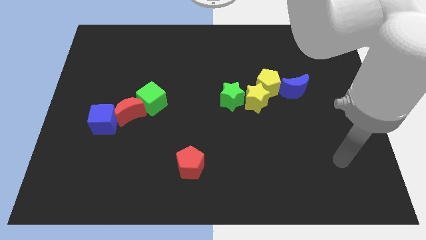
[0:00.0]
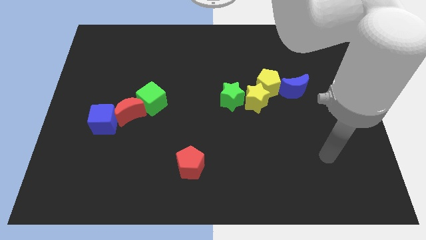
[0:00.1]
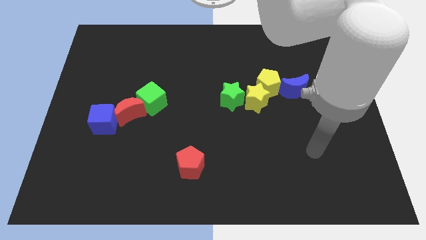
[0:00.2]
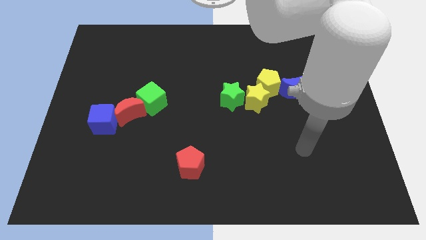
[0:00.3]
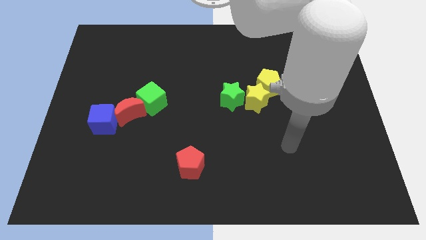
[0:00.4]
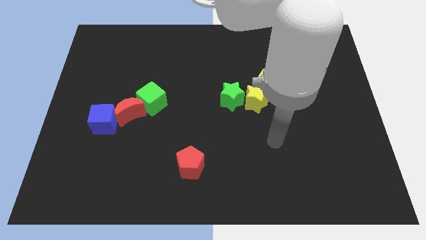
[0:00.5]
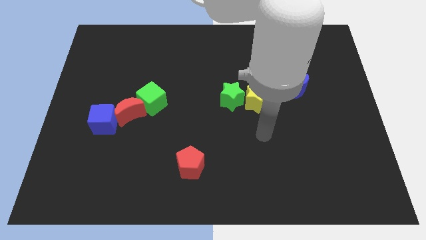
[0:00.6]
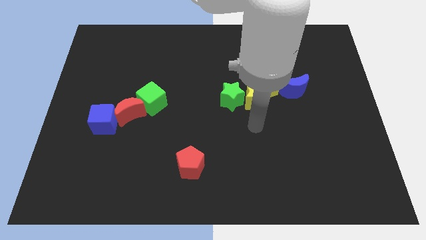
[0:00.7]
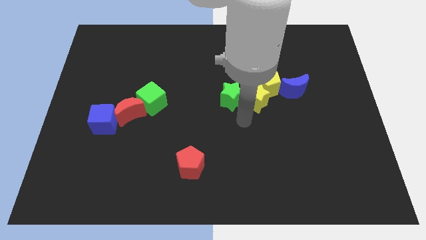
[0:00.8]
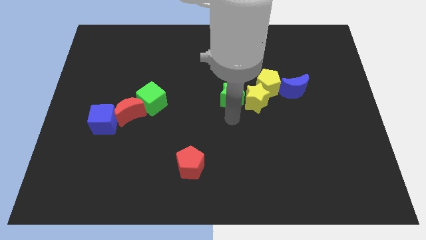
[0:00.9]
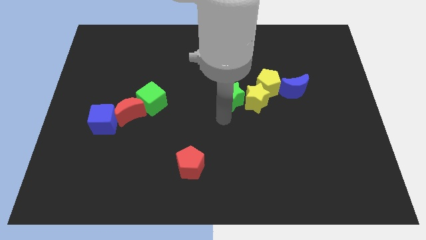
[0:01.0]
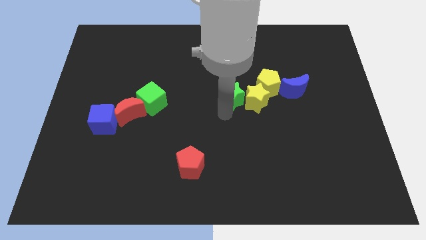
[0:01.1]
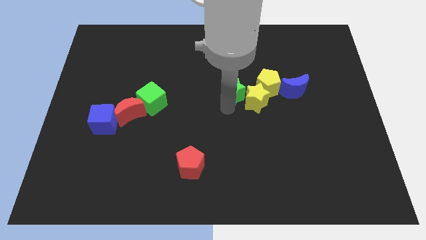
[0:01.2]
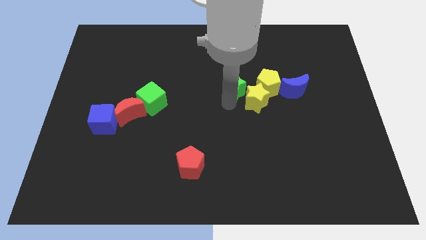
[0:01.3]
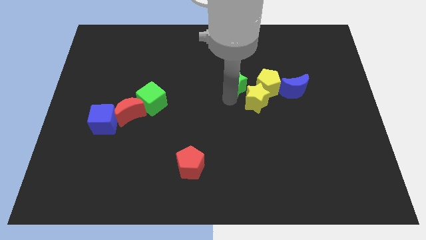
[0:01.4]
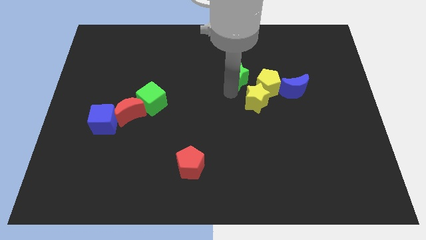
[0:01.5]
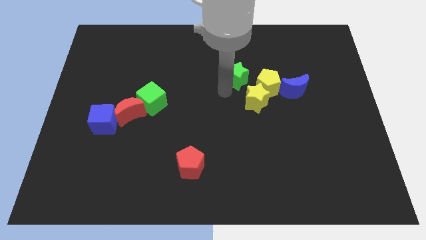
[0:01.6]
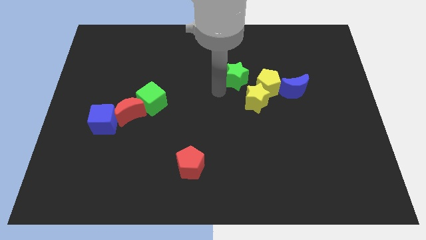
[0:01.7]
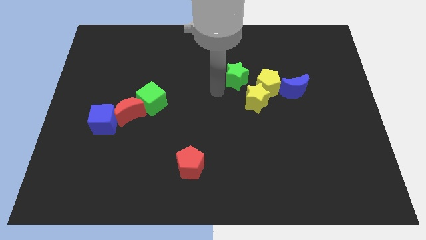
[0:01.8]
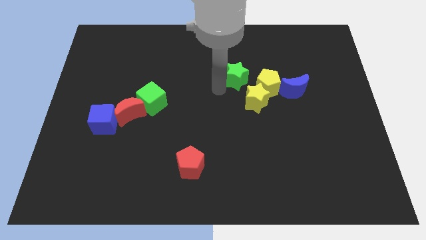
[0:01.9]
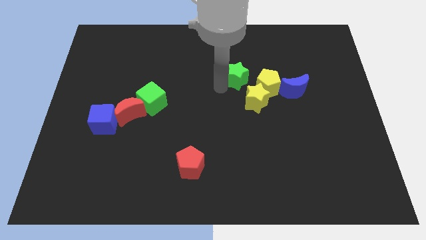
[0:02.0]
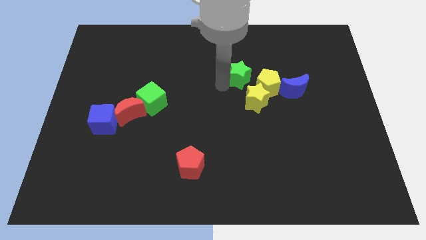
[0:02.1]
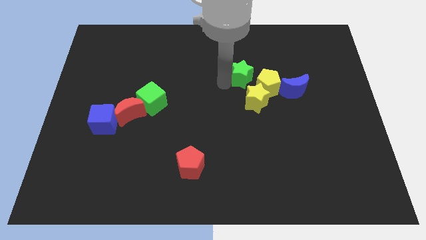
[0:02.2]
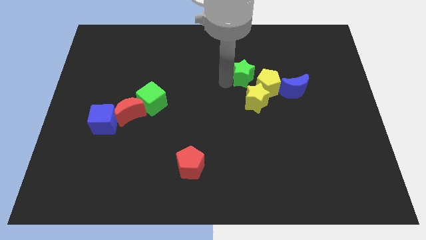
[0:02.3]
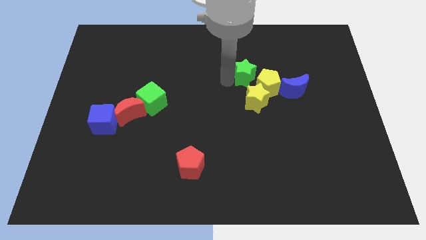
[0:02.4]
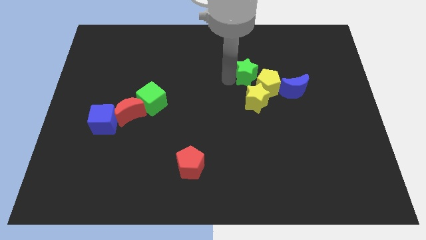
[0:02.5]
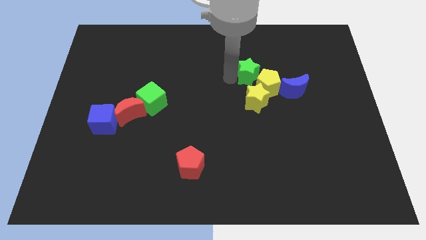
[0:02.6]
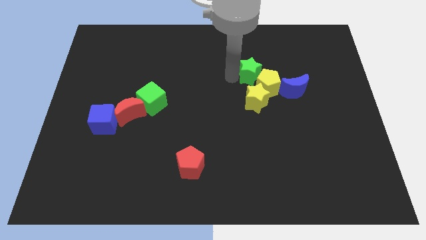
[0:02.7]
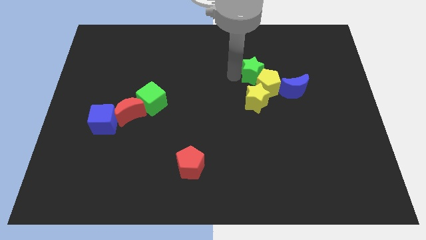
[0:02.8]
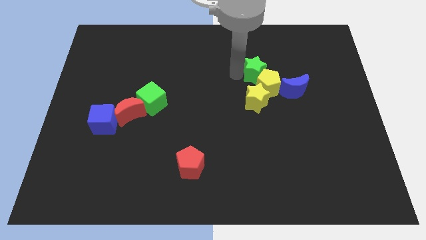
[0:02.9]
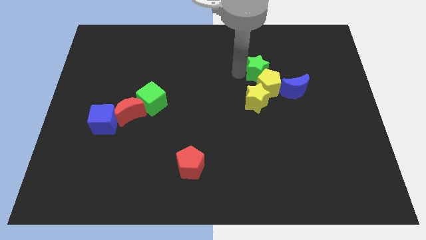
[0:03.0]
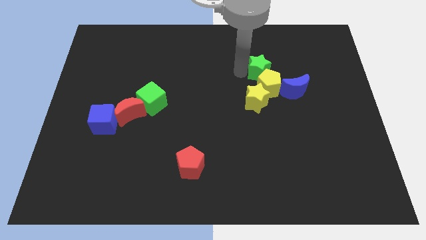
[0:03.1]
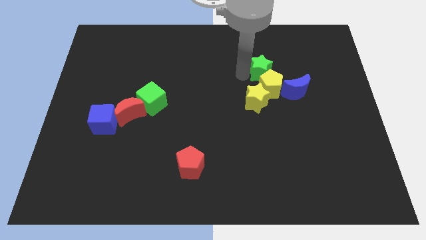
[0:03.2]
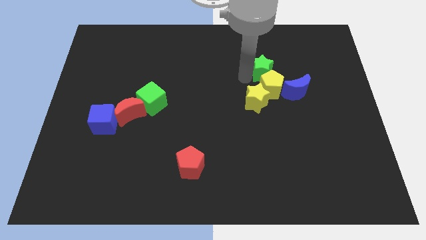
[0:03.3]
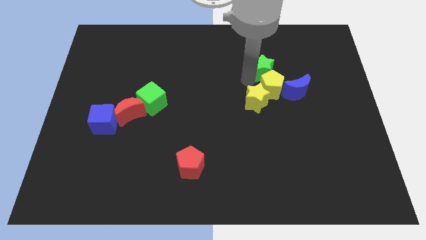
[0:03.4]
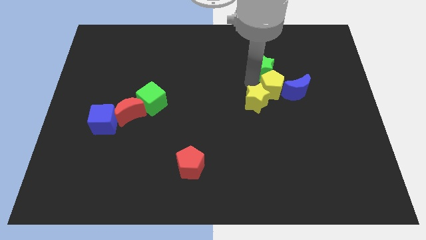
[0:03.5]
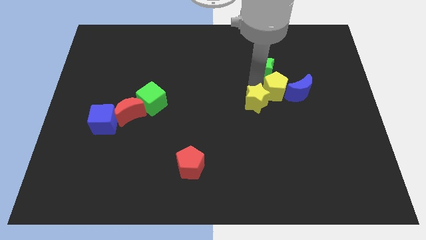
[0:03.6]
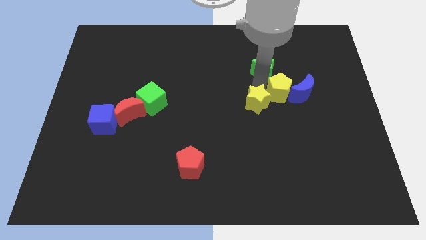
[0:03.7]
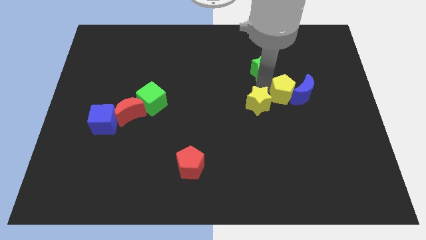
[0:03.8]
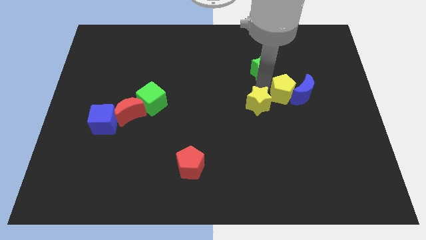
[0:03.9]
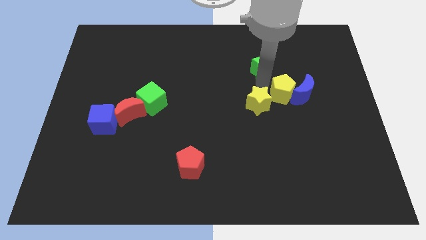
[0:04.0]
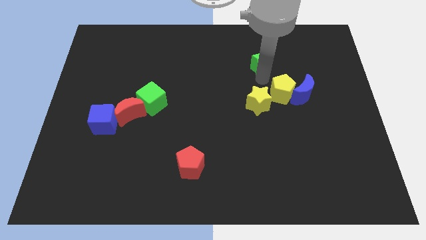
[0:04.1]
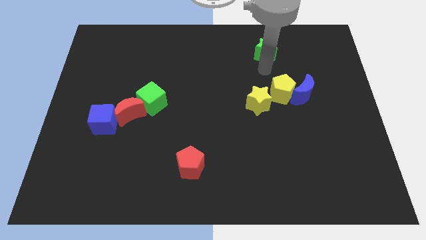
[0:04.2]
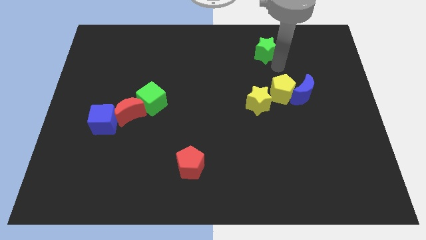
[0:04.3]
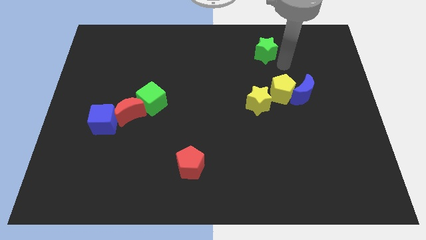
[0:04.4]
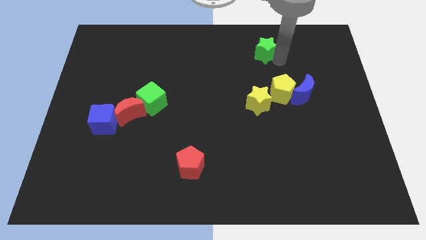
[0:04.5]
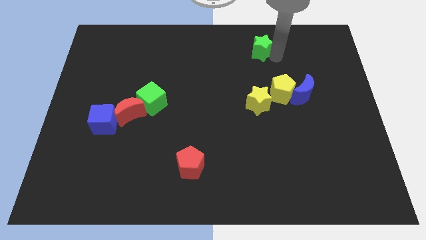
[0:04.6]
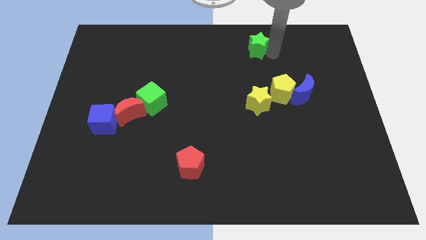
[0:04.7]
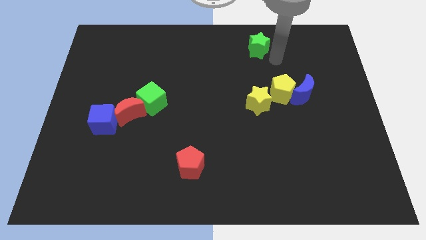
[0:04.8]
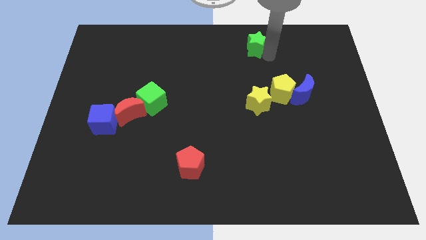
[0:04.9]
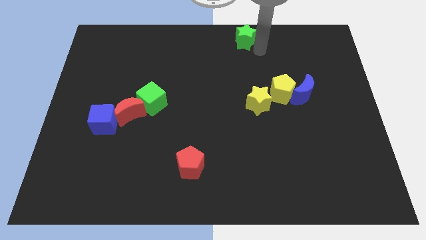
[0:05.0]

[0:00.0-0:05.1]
move the green star to the towards your base

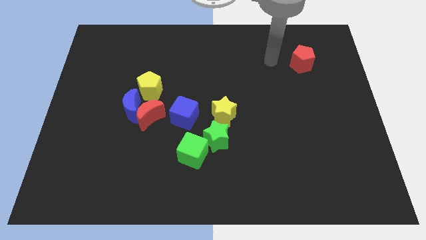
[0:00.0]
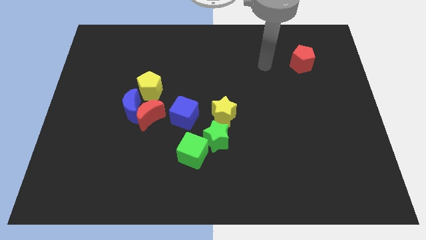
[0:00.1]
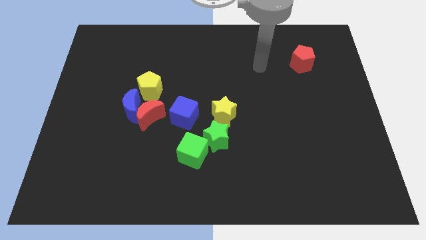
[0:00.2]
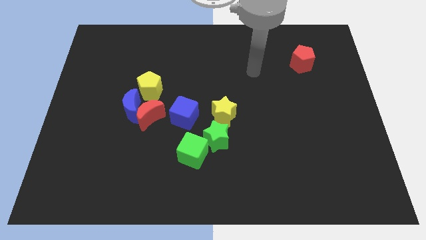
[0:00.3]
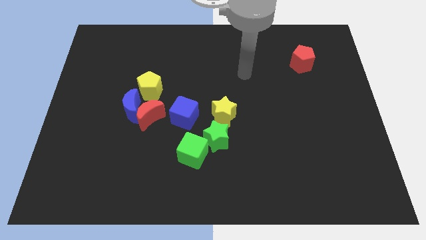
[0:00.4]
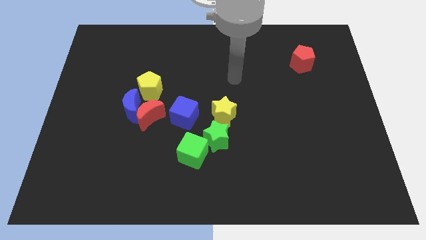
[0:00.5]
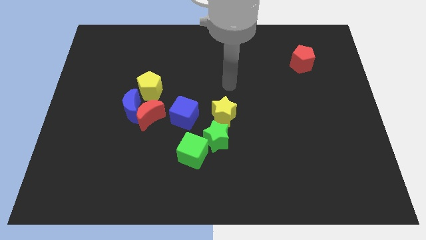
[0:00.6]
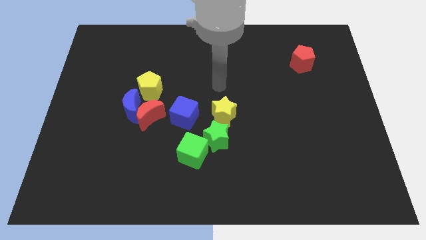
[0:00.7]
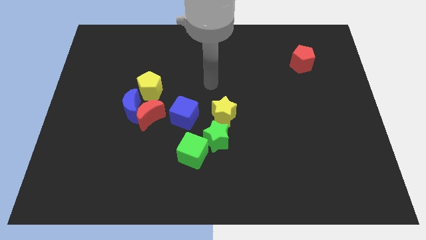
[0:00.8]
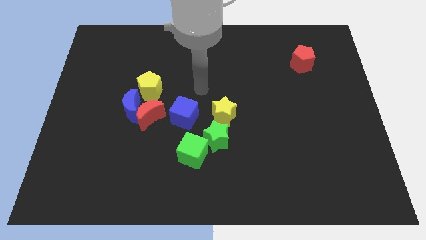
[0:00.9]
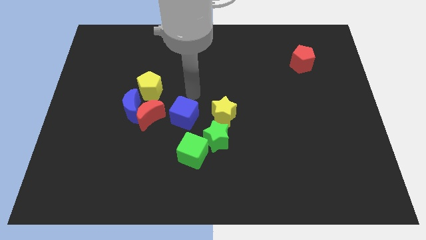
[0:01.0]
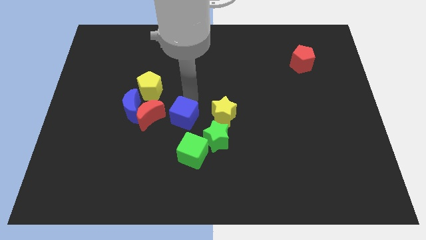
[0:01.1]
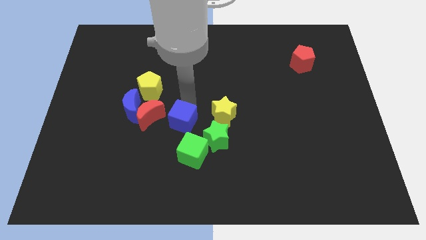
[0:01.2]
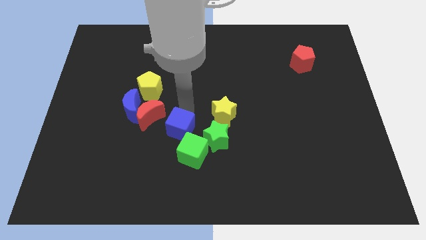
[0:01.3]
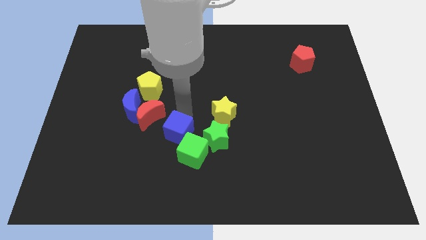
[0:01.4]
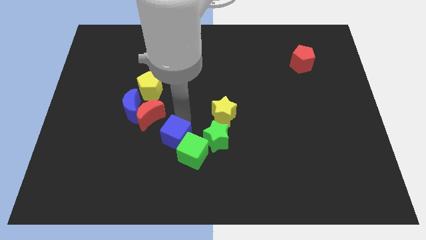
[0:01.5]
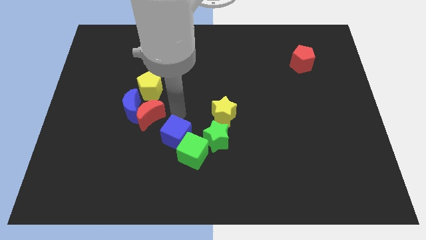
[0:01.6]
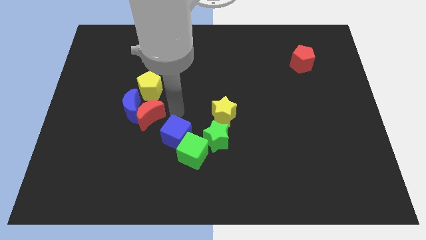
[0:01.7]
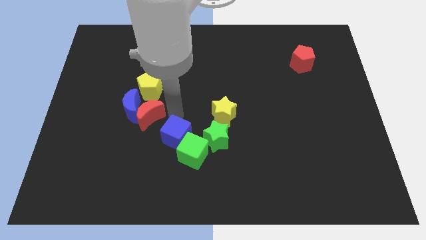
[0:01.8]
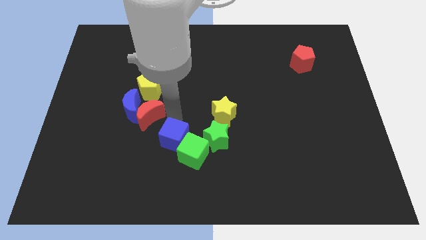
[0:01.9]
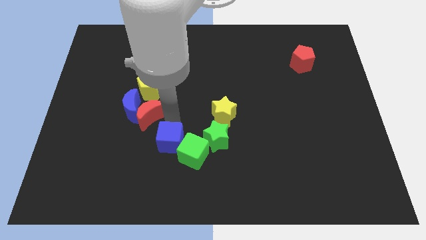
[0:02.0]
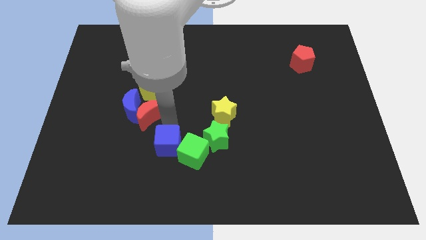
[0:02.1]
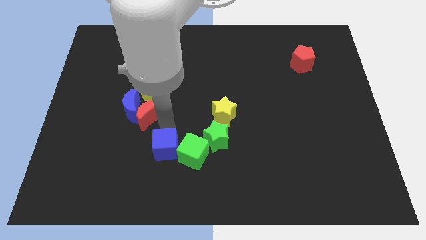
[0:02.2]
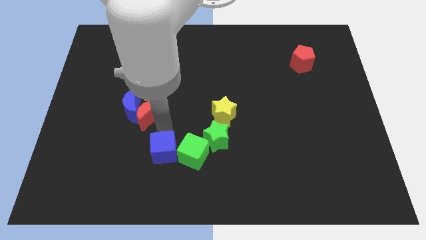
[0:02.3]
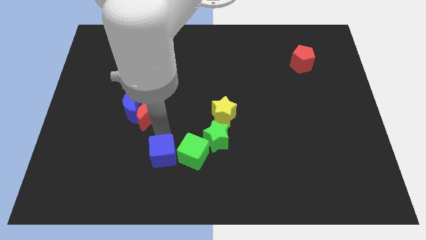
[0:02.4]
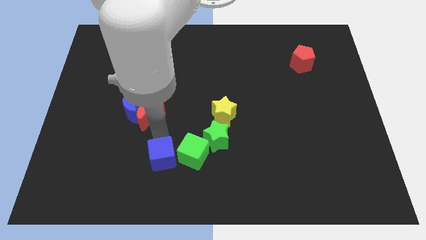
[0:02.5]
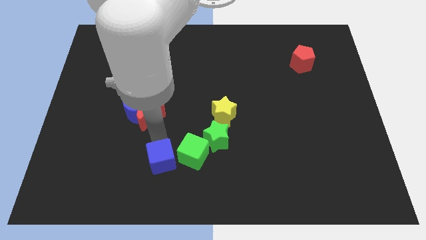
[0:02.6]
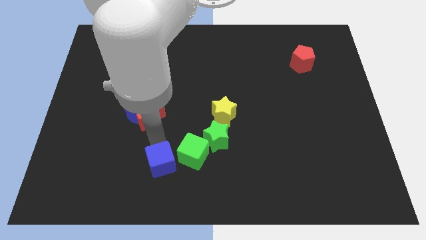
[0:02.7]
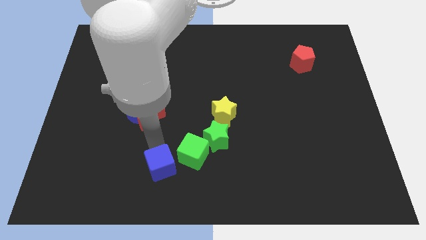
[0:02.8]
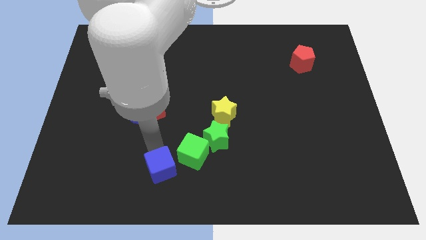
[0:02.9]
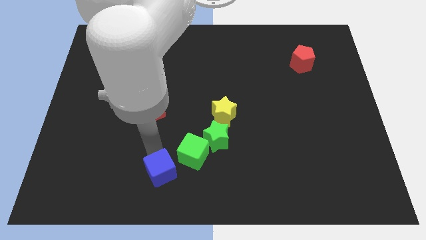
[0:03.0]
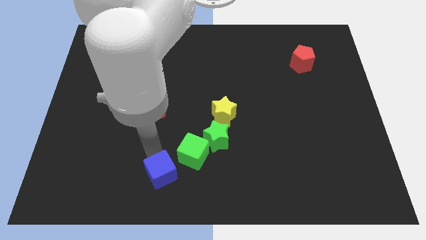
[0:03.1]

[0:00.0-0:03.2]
push the blue cube to the bottom
